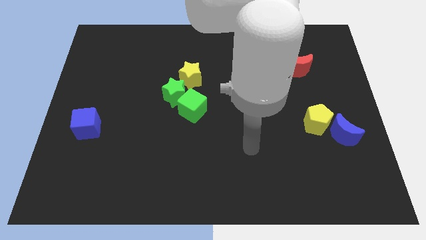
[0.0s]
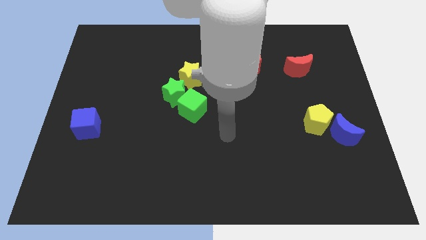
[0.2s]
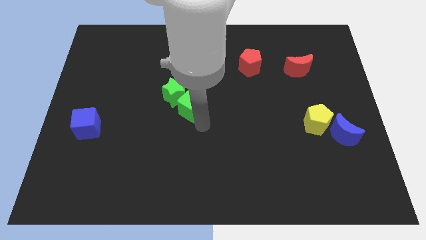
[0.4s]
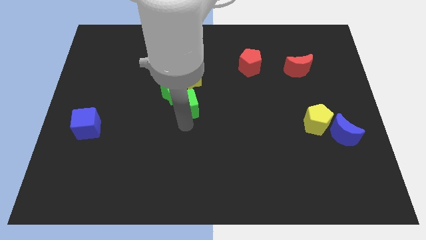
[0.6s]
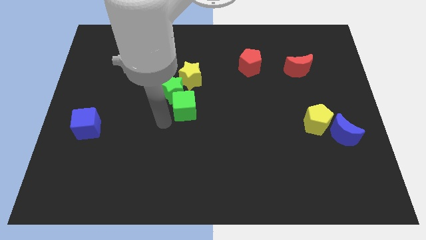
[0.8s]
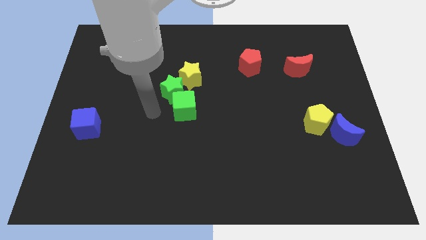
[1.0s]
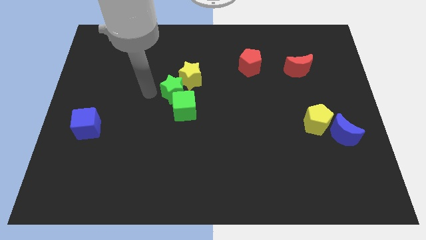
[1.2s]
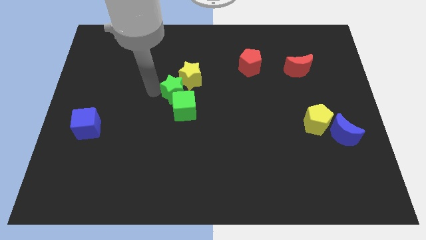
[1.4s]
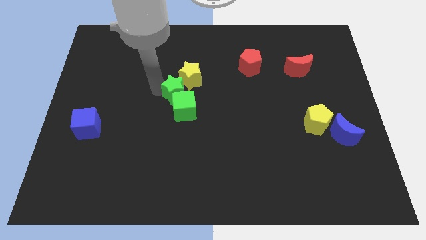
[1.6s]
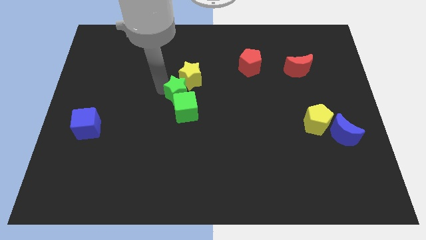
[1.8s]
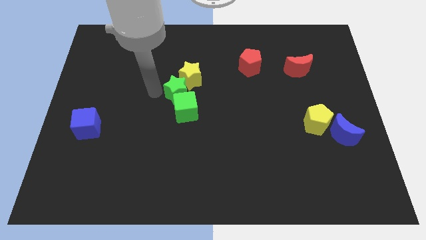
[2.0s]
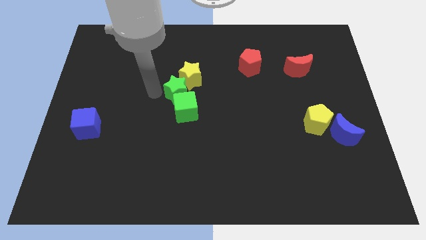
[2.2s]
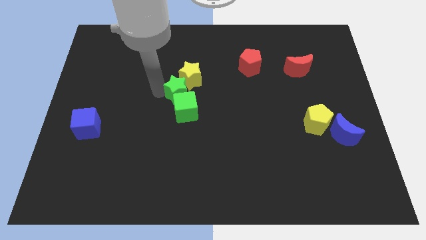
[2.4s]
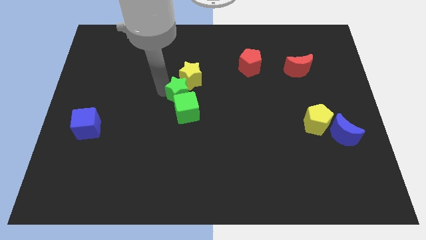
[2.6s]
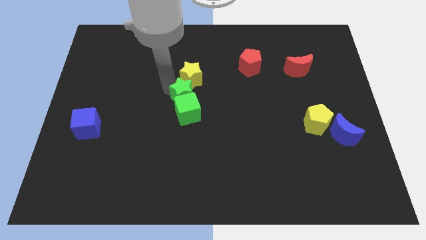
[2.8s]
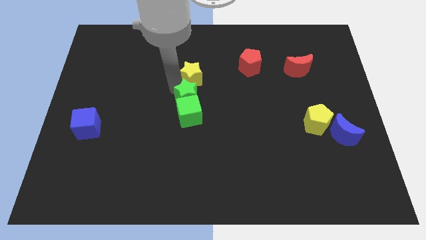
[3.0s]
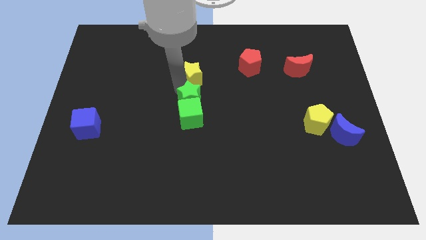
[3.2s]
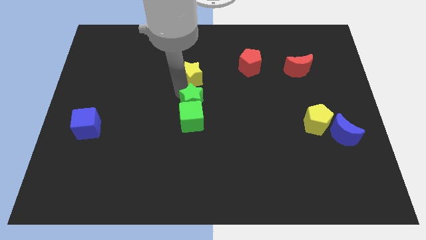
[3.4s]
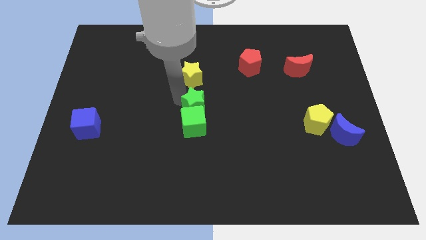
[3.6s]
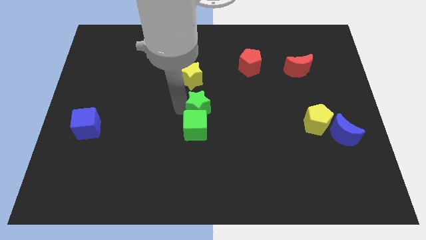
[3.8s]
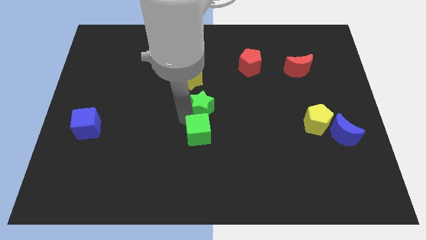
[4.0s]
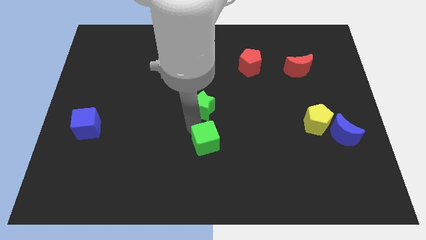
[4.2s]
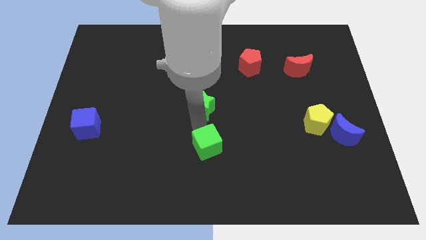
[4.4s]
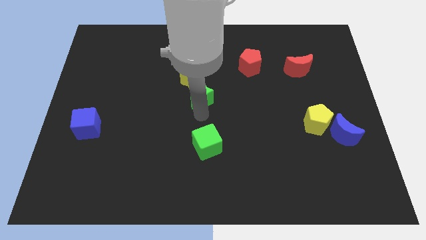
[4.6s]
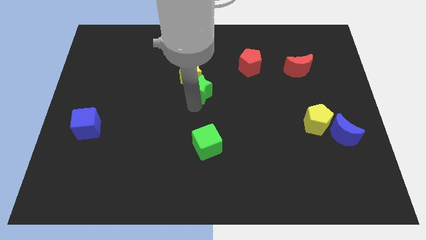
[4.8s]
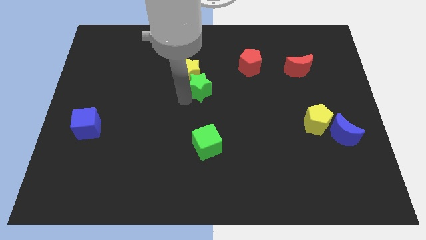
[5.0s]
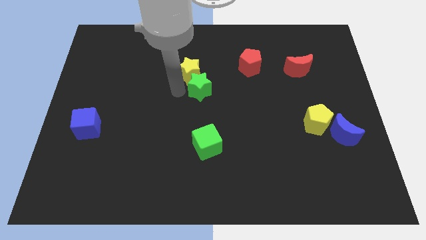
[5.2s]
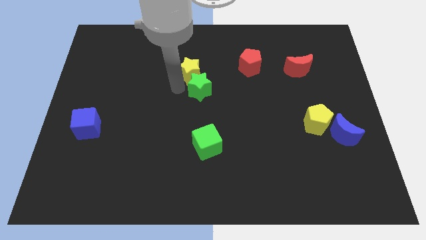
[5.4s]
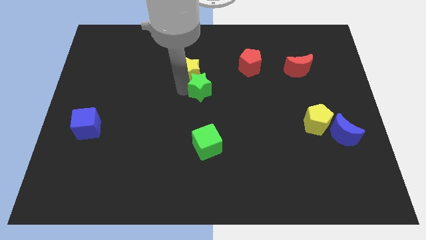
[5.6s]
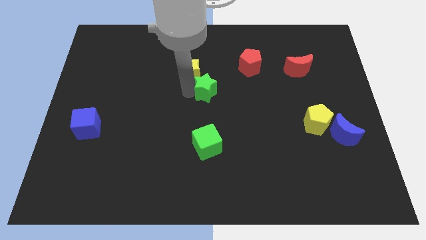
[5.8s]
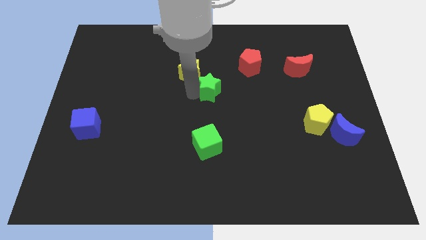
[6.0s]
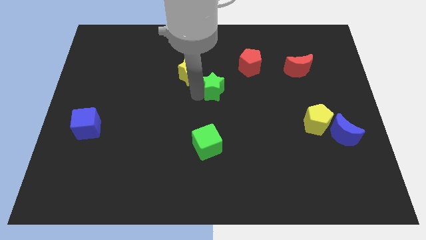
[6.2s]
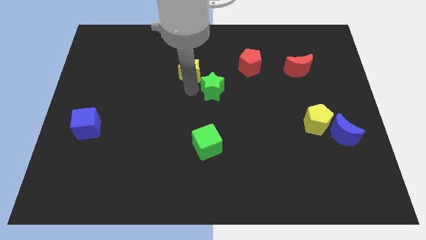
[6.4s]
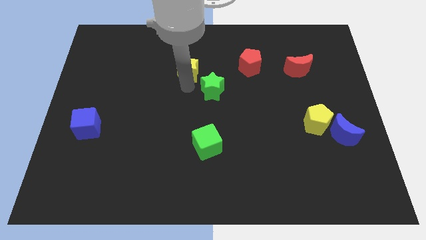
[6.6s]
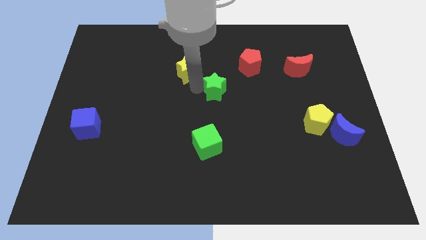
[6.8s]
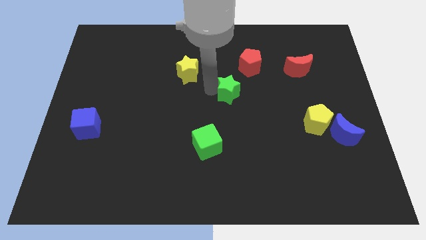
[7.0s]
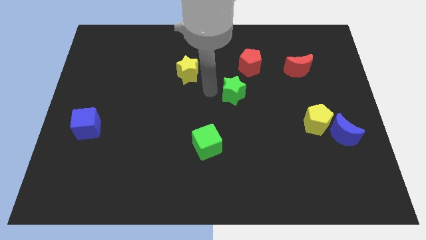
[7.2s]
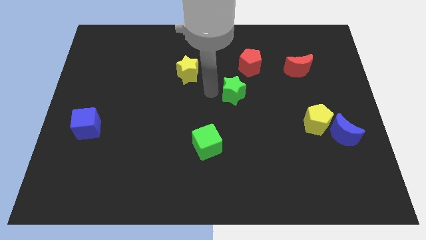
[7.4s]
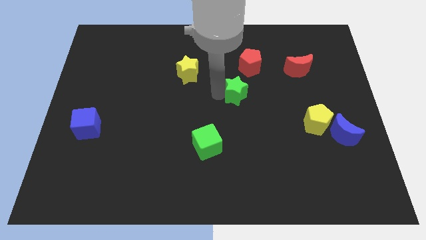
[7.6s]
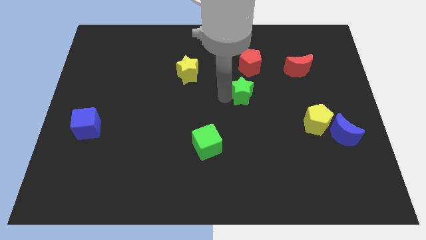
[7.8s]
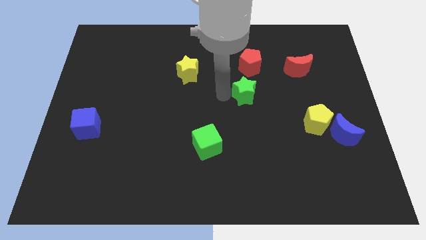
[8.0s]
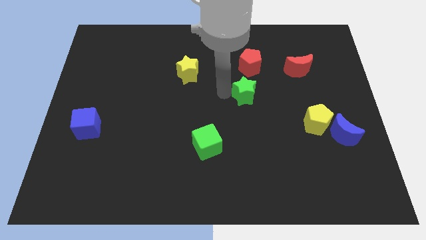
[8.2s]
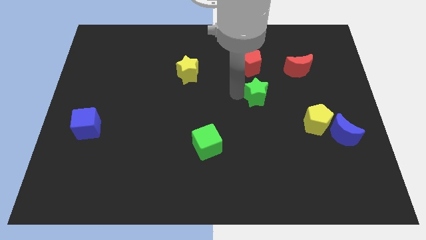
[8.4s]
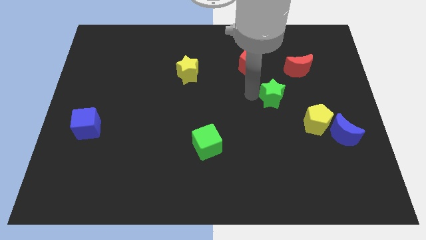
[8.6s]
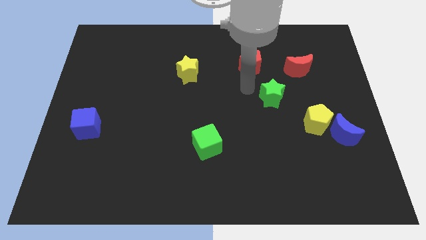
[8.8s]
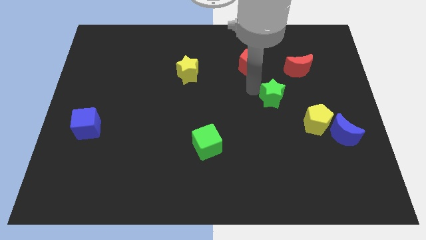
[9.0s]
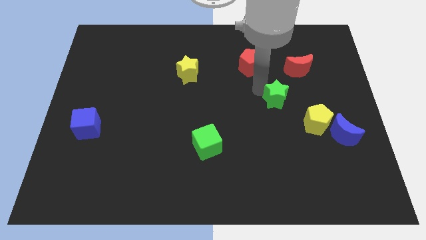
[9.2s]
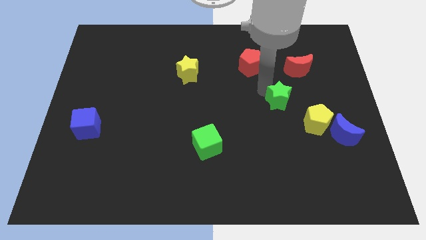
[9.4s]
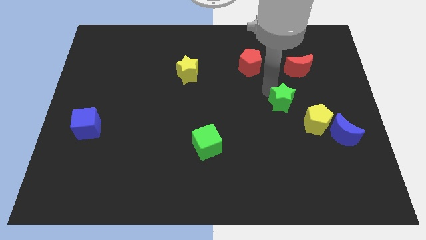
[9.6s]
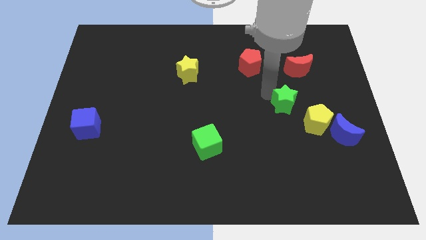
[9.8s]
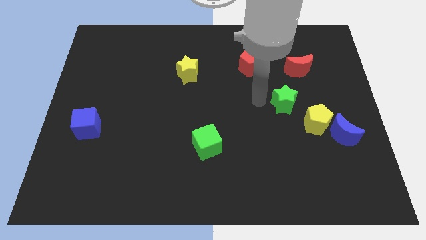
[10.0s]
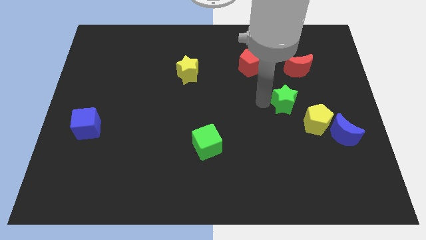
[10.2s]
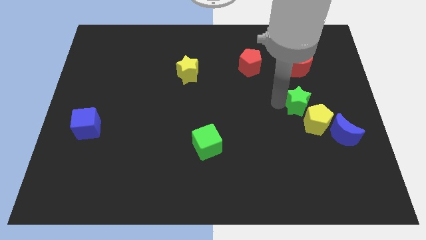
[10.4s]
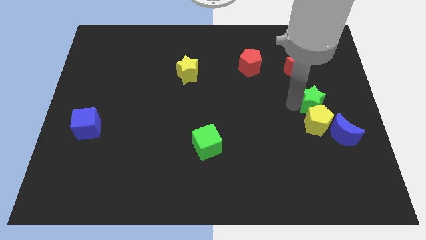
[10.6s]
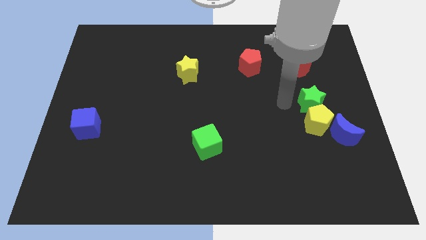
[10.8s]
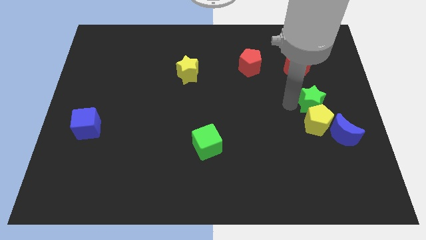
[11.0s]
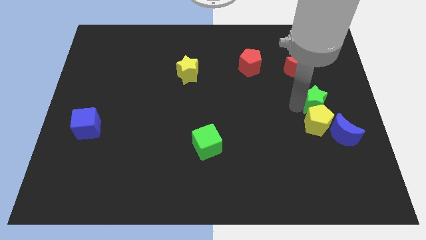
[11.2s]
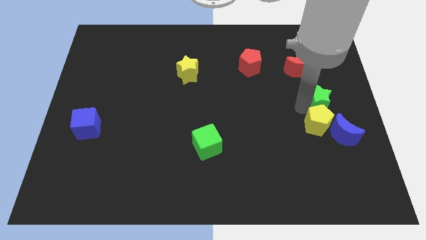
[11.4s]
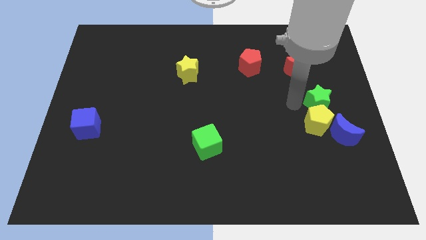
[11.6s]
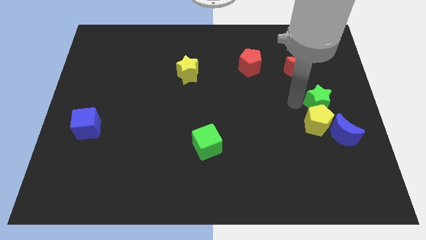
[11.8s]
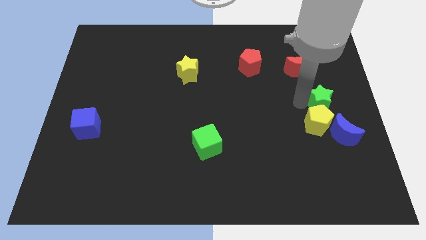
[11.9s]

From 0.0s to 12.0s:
slide the green star to the right side of the board

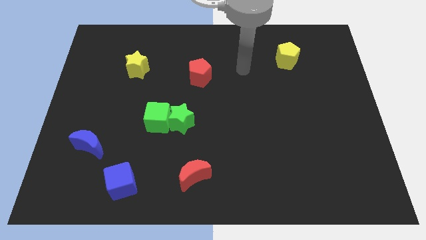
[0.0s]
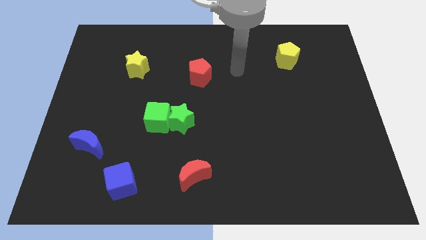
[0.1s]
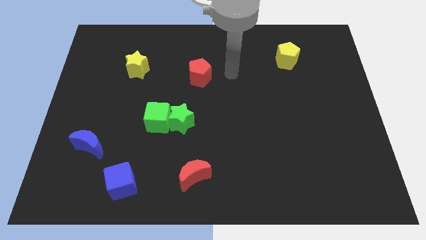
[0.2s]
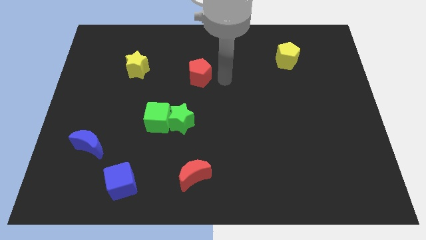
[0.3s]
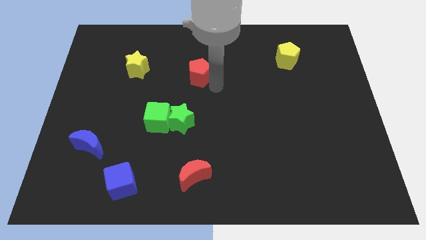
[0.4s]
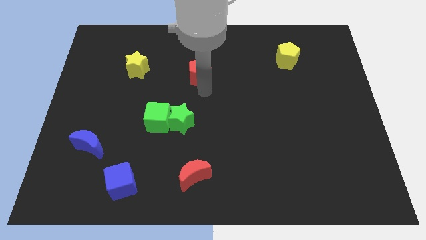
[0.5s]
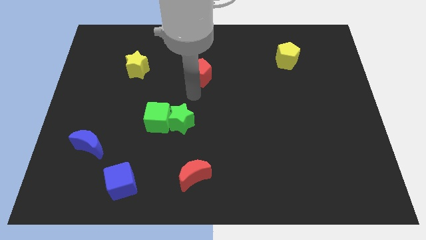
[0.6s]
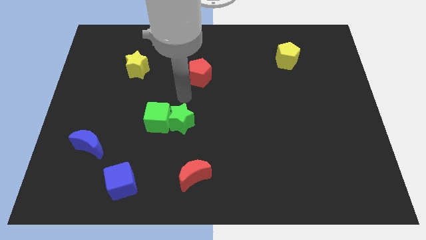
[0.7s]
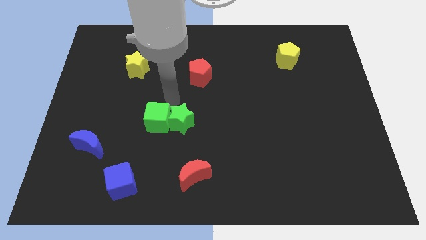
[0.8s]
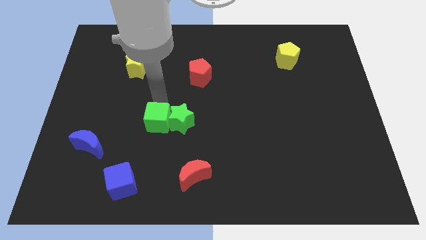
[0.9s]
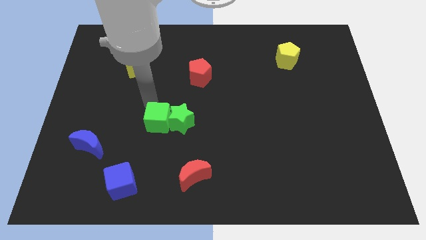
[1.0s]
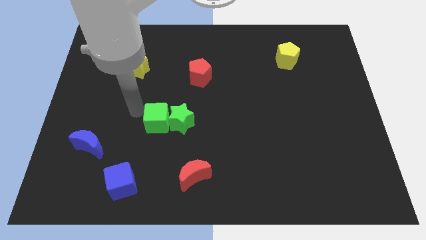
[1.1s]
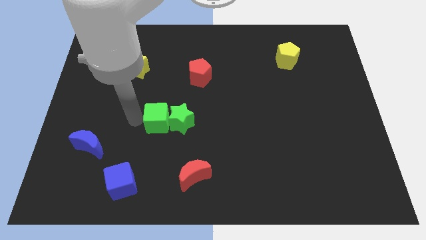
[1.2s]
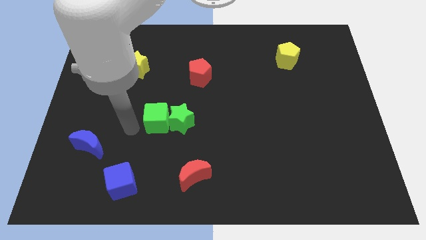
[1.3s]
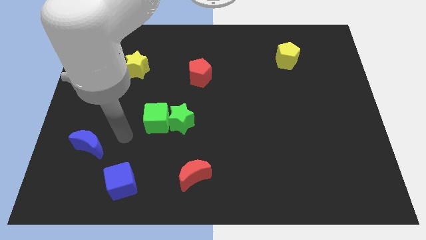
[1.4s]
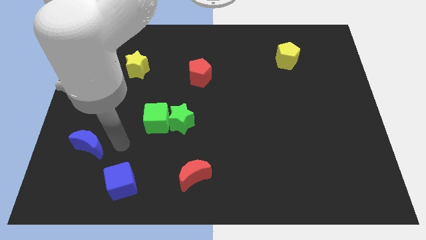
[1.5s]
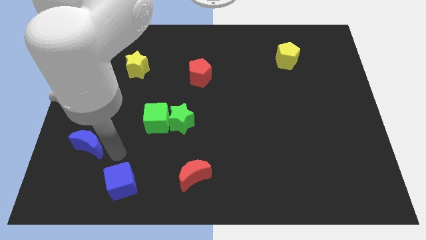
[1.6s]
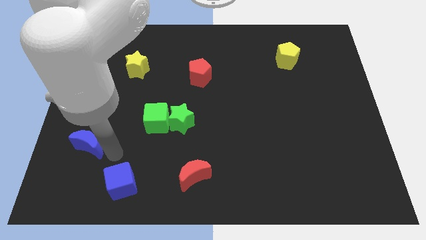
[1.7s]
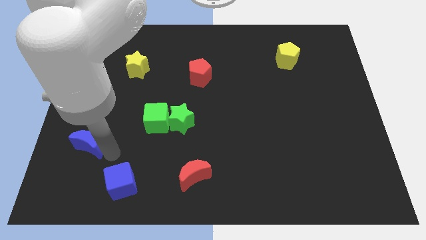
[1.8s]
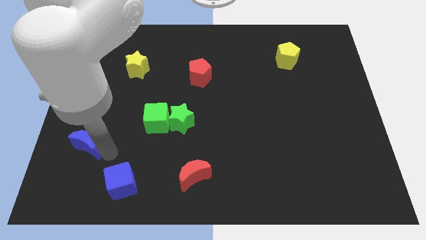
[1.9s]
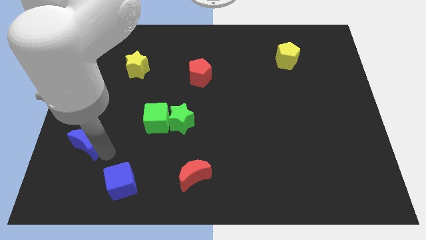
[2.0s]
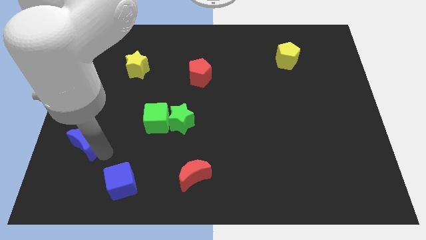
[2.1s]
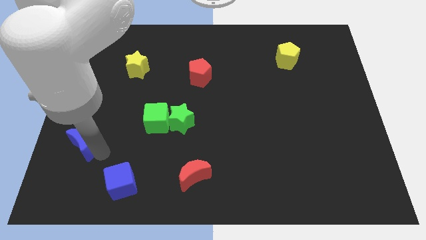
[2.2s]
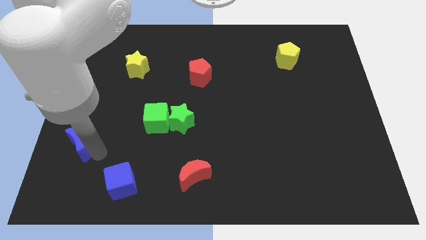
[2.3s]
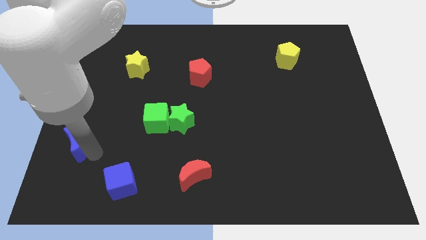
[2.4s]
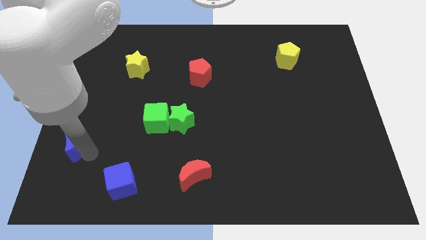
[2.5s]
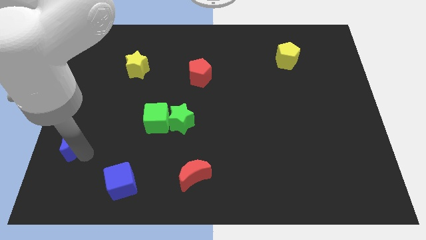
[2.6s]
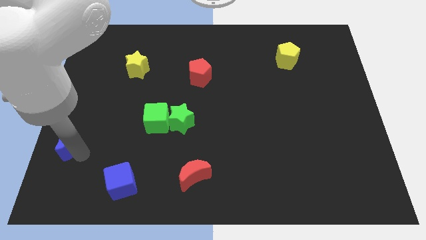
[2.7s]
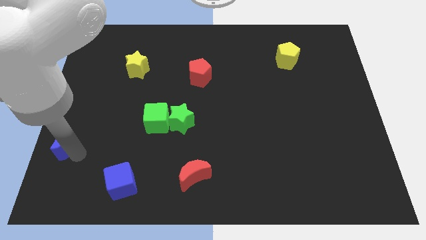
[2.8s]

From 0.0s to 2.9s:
put the blue moon to the left side of the board
